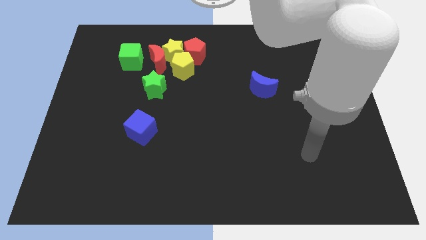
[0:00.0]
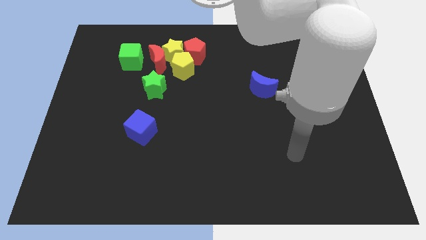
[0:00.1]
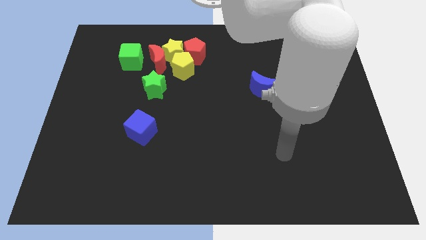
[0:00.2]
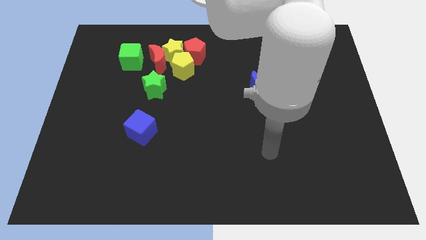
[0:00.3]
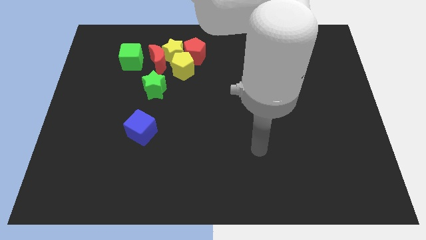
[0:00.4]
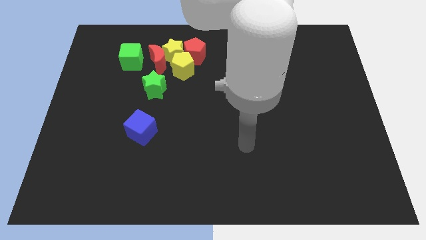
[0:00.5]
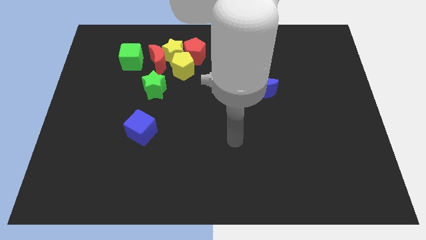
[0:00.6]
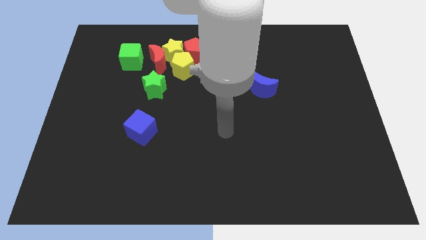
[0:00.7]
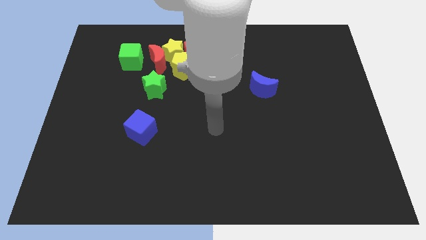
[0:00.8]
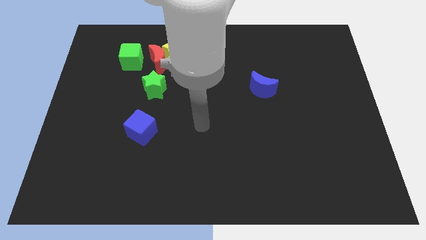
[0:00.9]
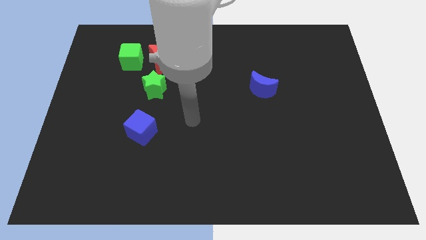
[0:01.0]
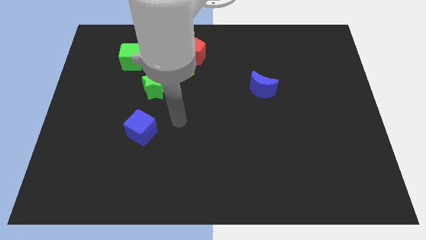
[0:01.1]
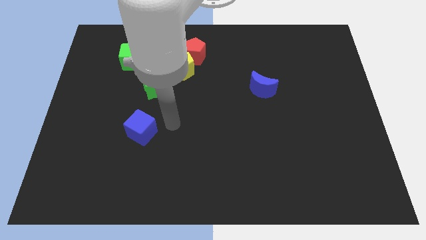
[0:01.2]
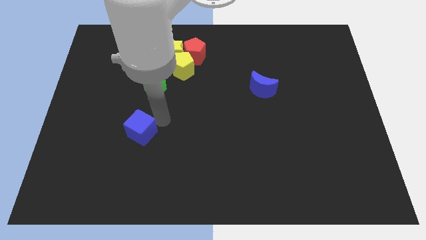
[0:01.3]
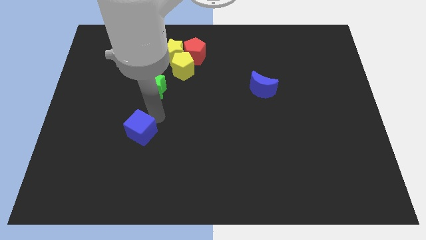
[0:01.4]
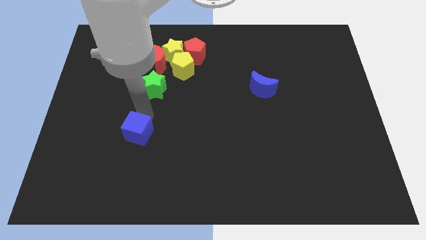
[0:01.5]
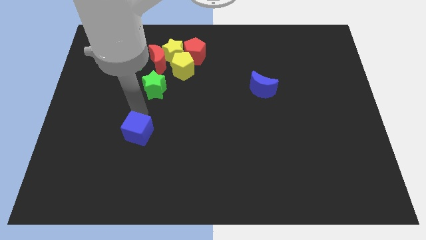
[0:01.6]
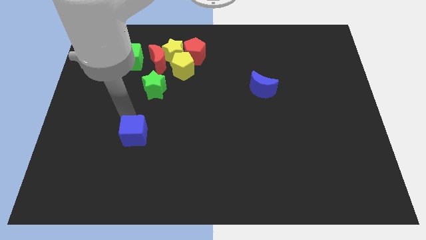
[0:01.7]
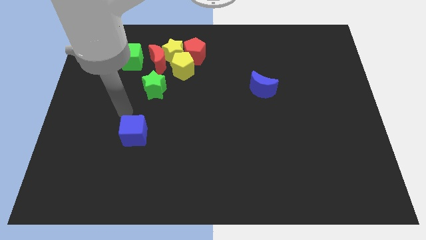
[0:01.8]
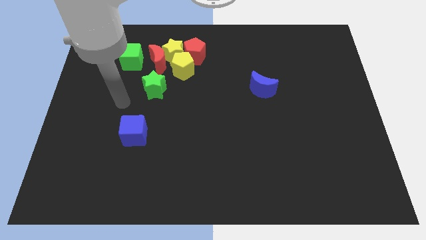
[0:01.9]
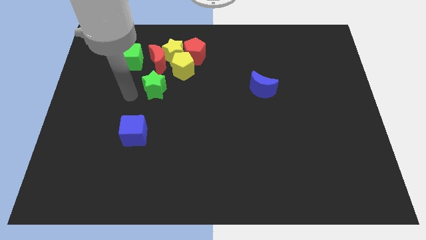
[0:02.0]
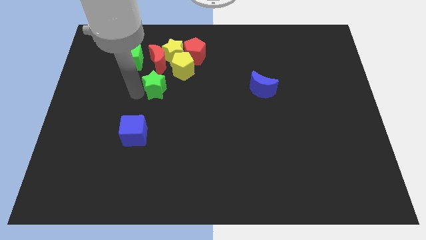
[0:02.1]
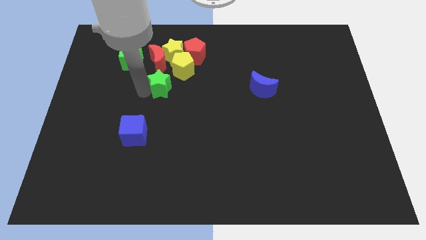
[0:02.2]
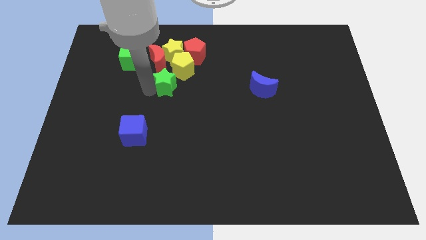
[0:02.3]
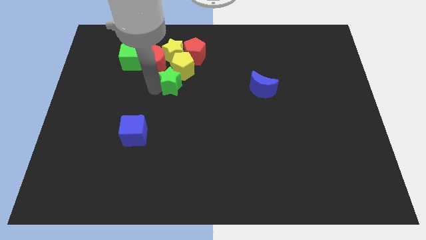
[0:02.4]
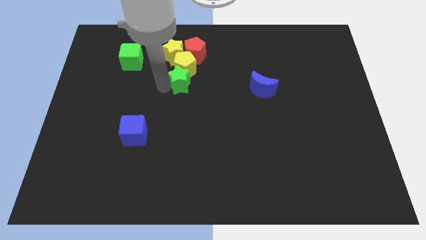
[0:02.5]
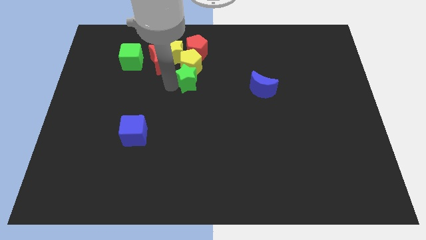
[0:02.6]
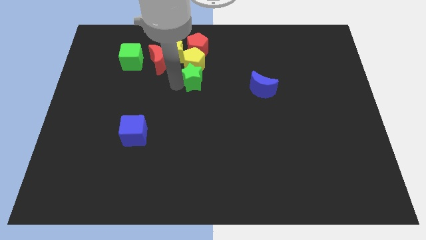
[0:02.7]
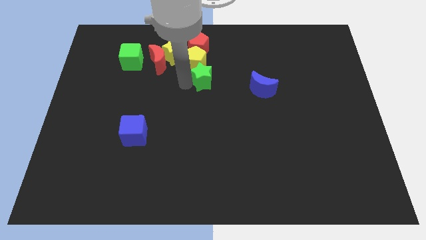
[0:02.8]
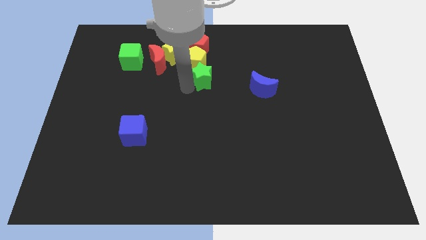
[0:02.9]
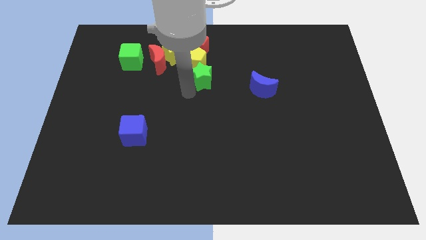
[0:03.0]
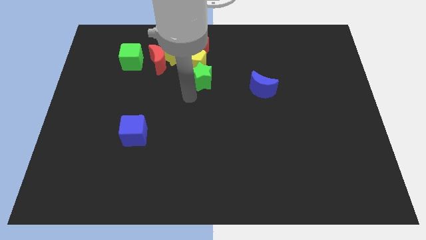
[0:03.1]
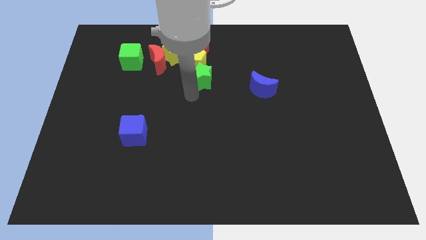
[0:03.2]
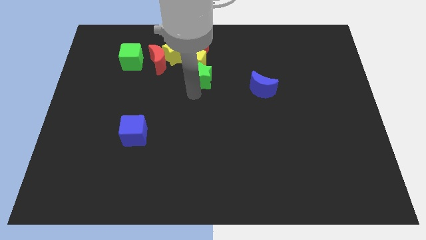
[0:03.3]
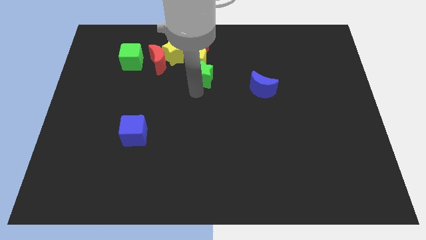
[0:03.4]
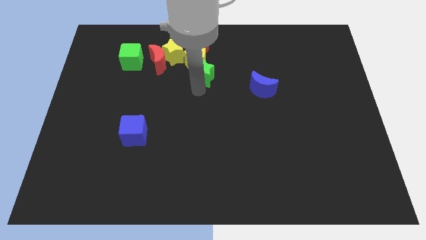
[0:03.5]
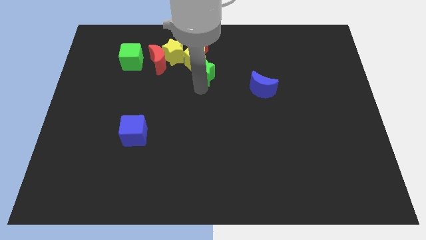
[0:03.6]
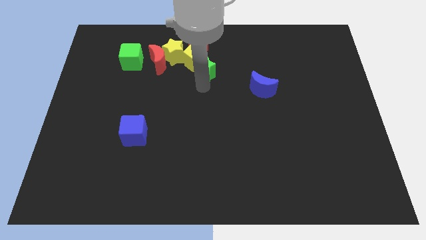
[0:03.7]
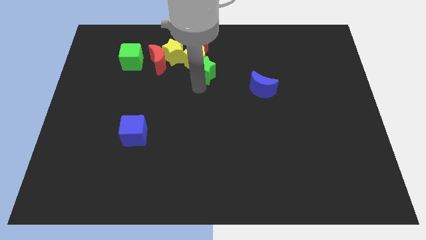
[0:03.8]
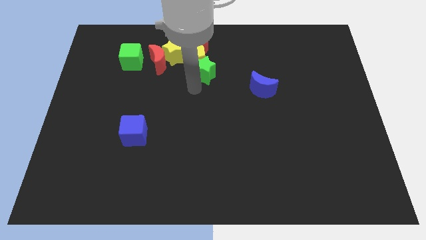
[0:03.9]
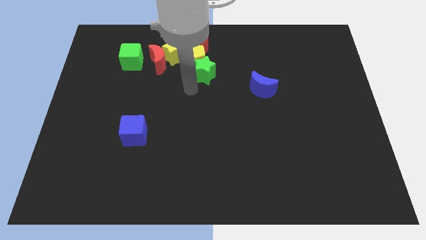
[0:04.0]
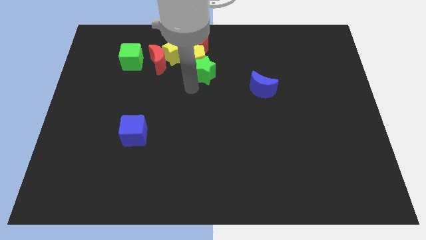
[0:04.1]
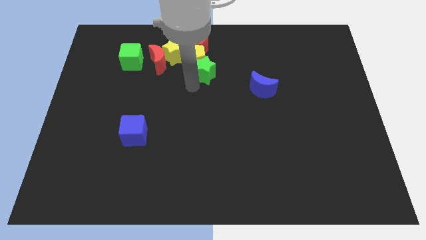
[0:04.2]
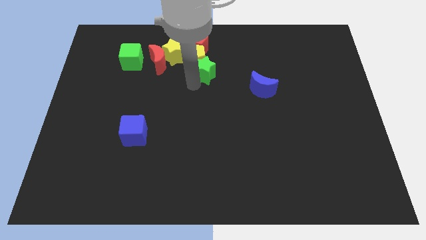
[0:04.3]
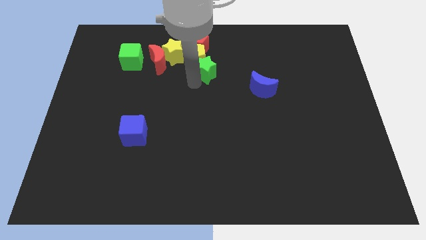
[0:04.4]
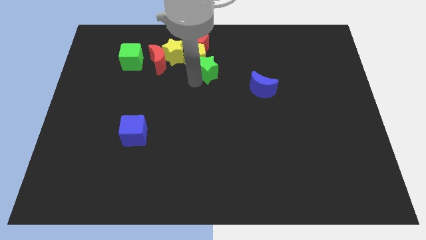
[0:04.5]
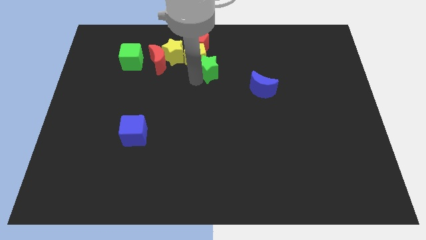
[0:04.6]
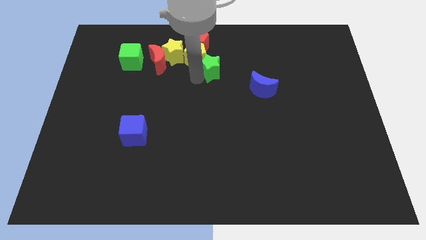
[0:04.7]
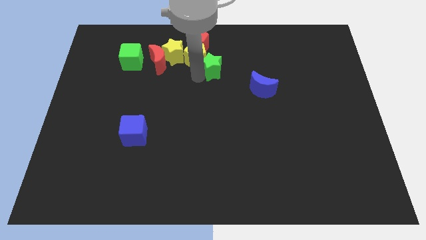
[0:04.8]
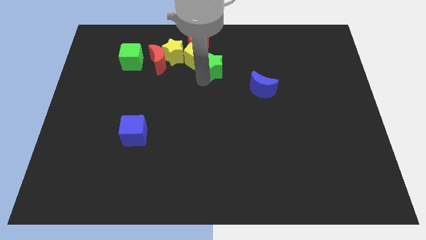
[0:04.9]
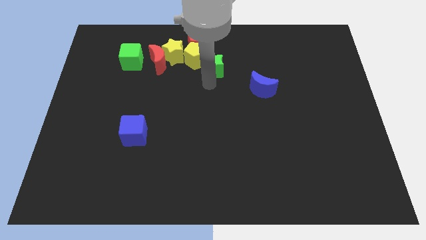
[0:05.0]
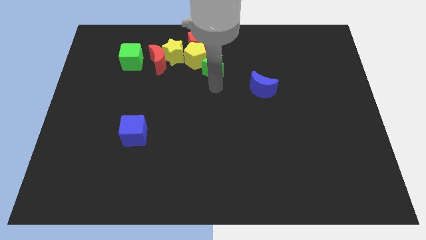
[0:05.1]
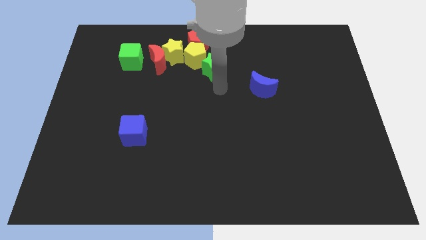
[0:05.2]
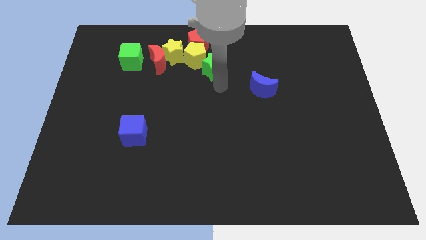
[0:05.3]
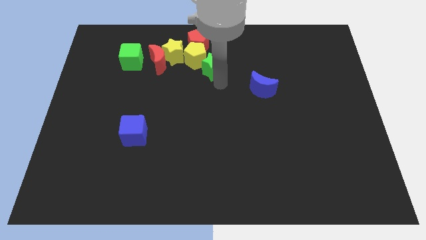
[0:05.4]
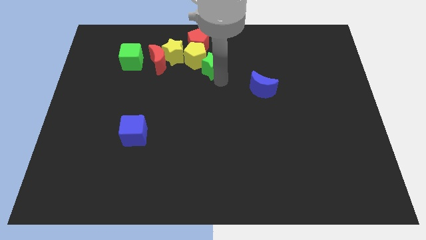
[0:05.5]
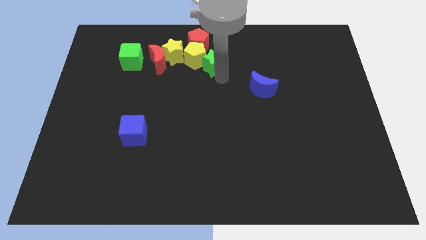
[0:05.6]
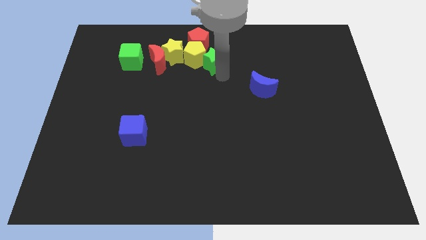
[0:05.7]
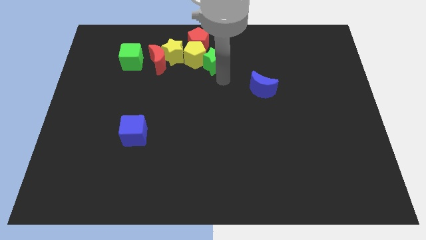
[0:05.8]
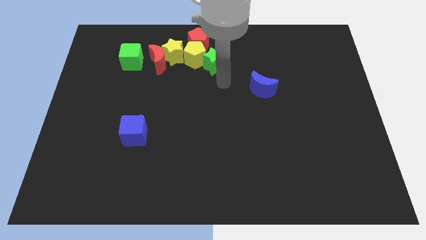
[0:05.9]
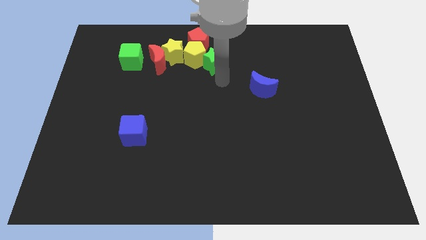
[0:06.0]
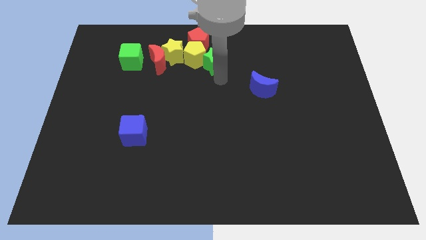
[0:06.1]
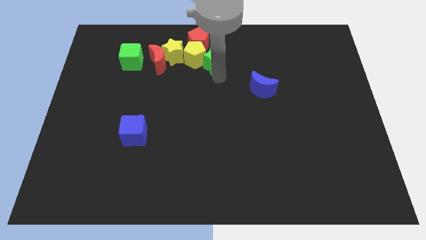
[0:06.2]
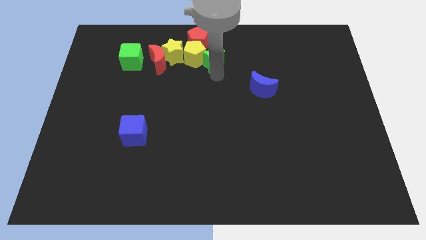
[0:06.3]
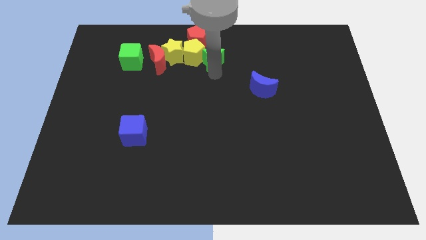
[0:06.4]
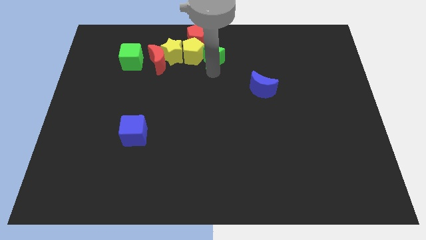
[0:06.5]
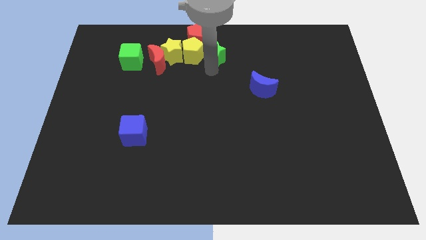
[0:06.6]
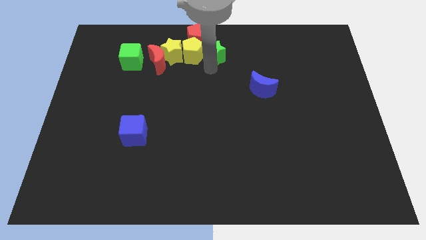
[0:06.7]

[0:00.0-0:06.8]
put the green star to the top side

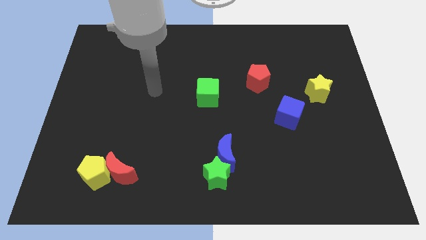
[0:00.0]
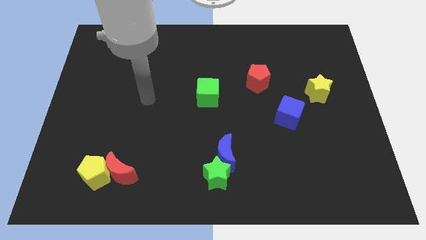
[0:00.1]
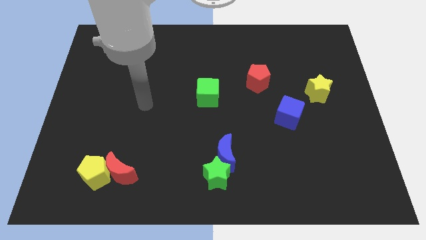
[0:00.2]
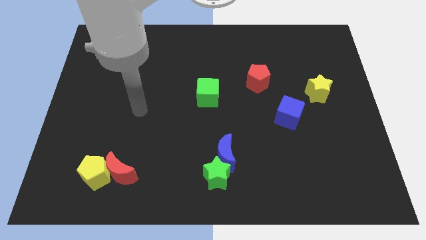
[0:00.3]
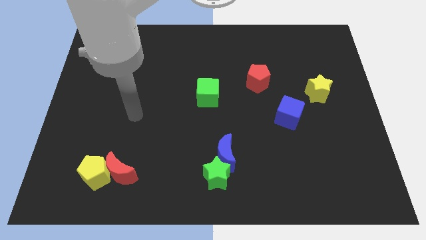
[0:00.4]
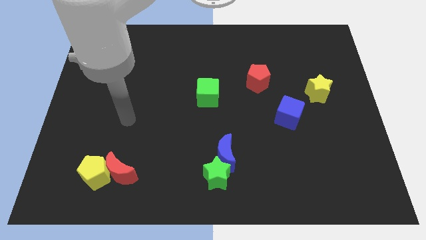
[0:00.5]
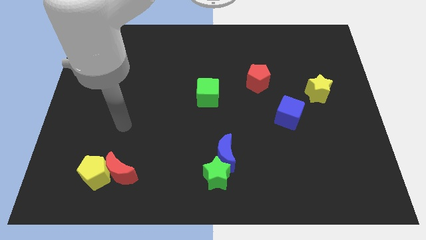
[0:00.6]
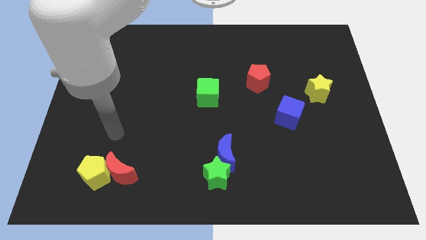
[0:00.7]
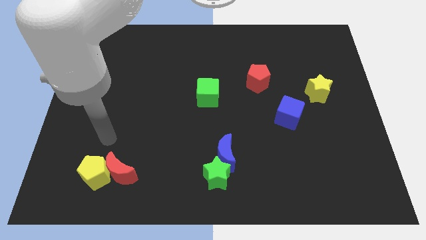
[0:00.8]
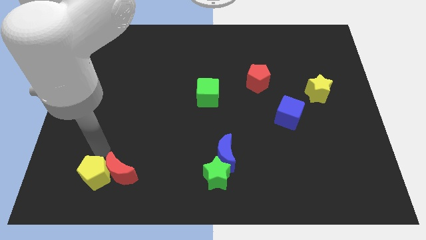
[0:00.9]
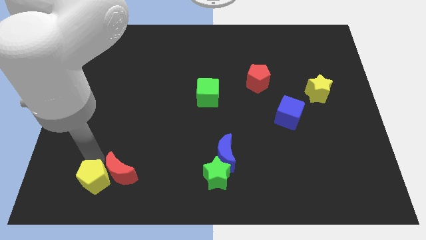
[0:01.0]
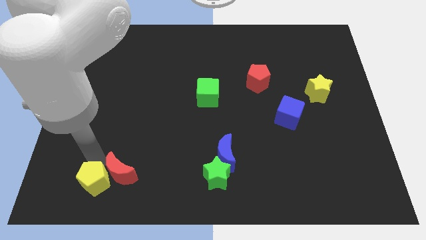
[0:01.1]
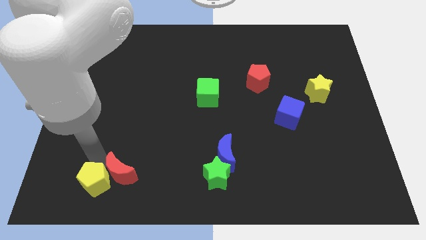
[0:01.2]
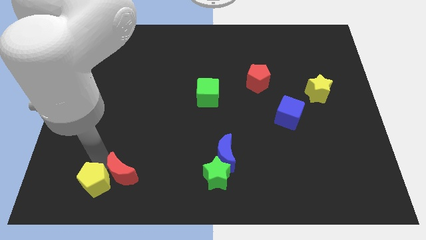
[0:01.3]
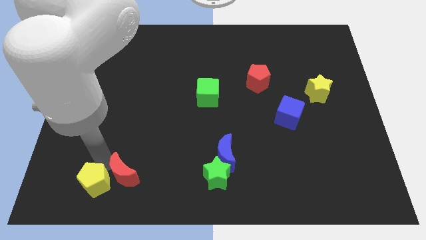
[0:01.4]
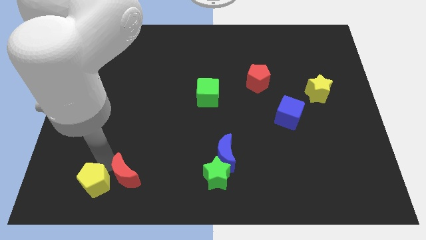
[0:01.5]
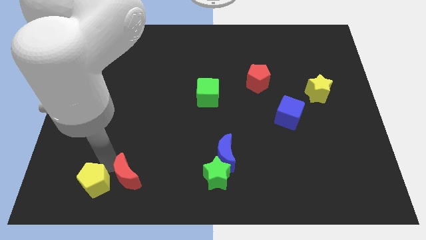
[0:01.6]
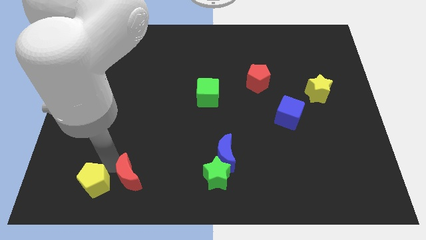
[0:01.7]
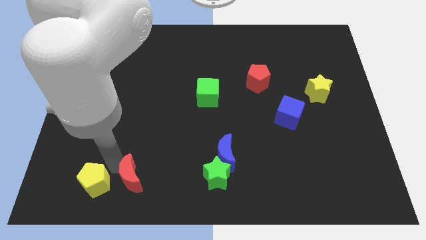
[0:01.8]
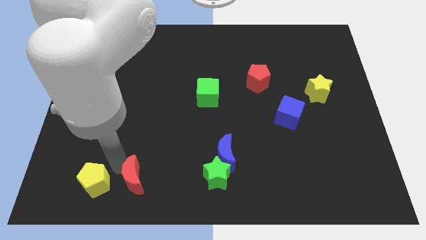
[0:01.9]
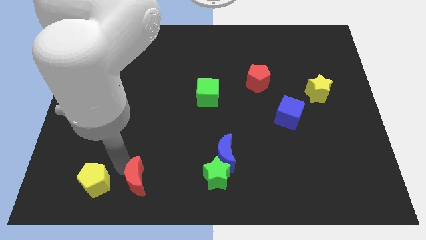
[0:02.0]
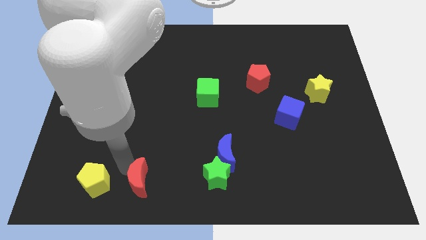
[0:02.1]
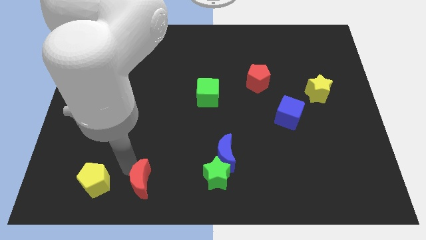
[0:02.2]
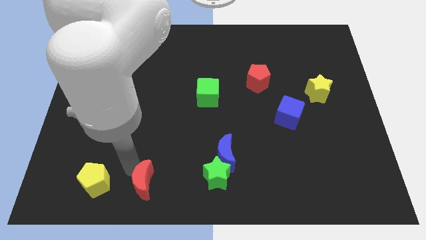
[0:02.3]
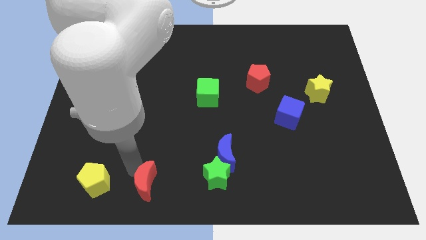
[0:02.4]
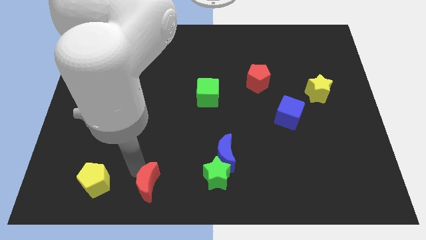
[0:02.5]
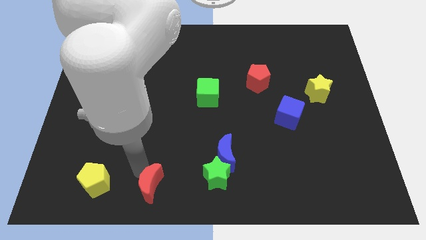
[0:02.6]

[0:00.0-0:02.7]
slide the red moon to the bottom side
